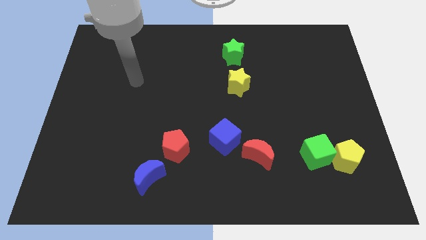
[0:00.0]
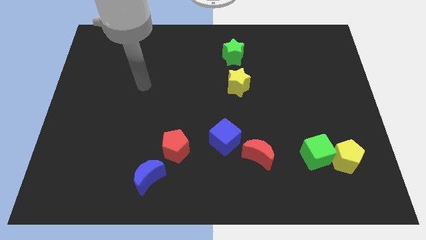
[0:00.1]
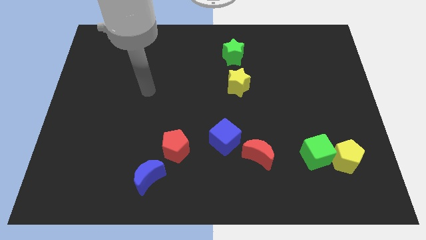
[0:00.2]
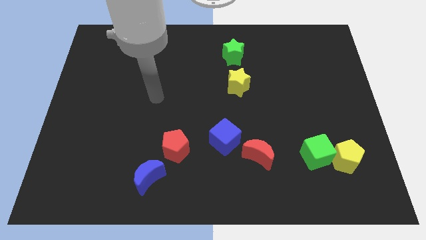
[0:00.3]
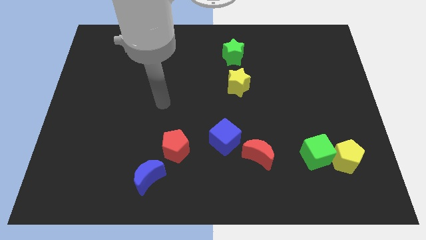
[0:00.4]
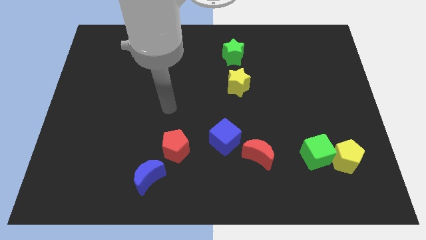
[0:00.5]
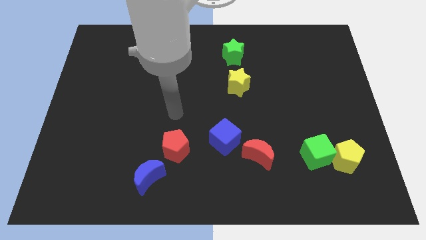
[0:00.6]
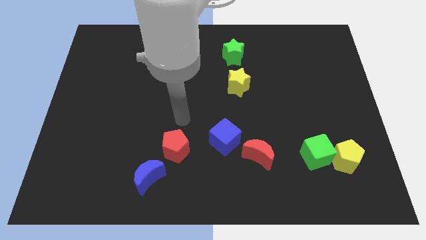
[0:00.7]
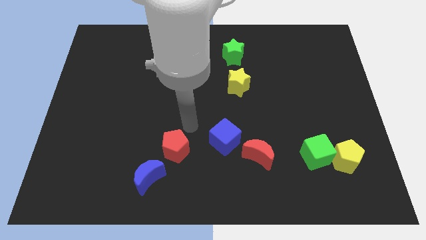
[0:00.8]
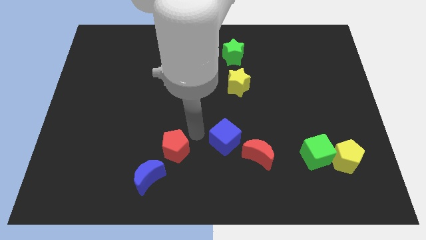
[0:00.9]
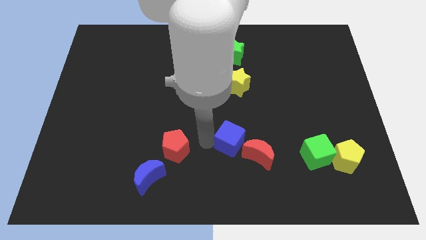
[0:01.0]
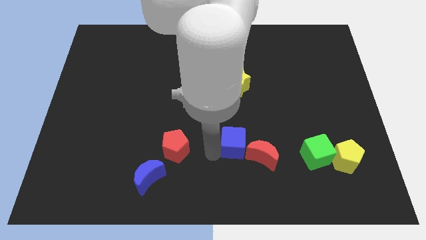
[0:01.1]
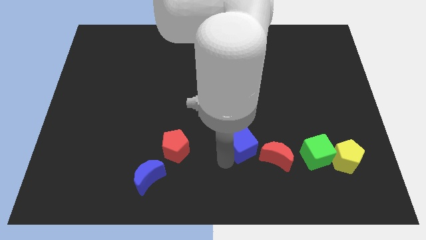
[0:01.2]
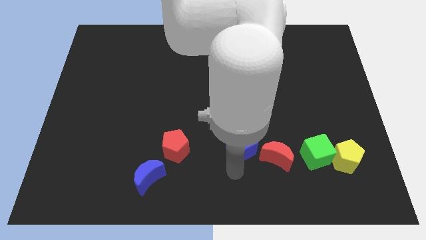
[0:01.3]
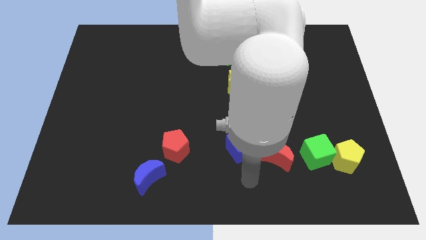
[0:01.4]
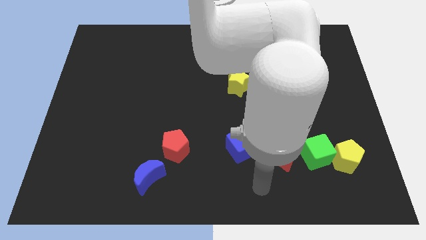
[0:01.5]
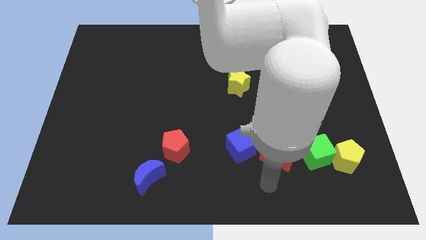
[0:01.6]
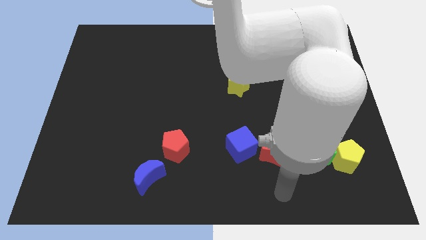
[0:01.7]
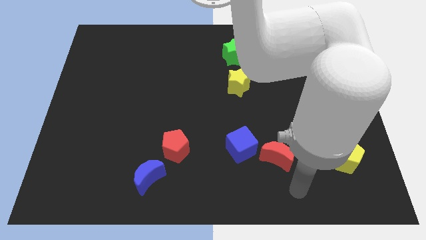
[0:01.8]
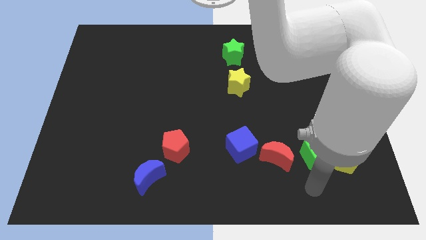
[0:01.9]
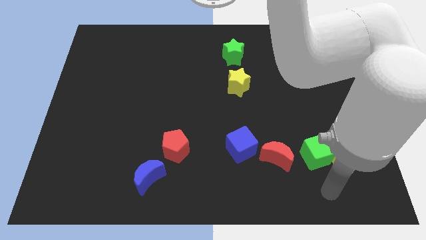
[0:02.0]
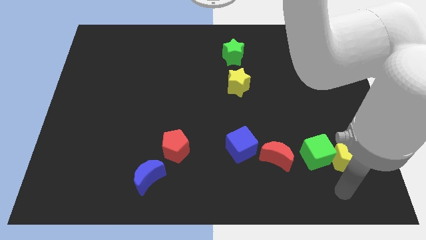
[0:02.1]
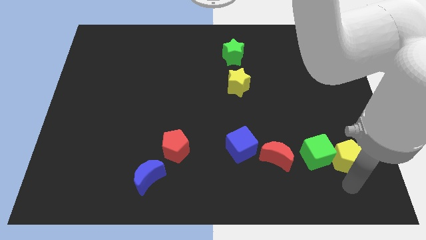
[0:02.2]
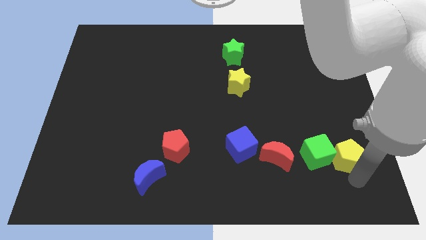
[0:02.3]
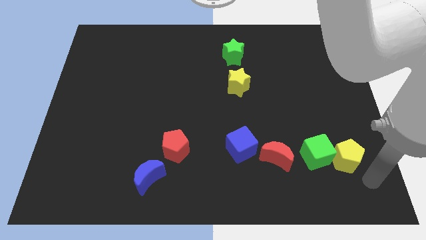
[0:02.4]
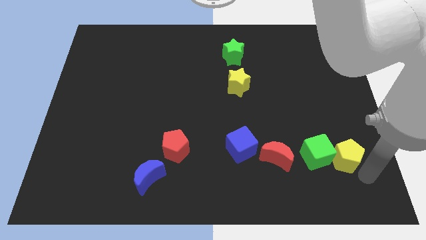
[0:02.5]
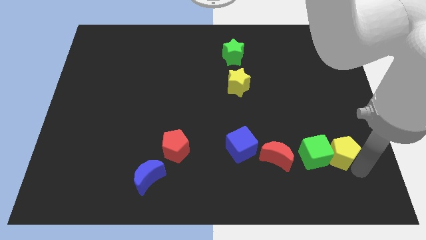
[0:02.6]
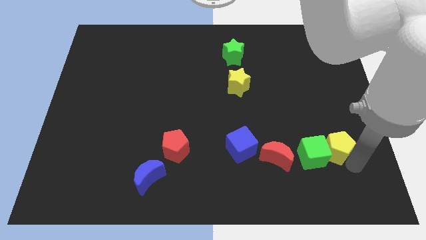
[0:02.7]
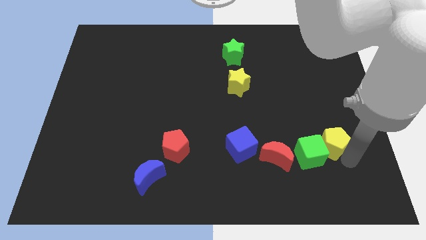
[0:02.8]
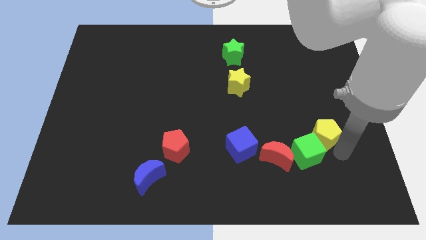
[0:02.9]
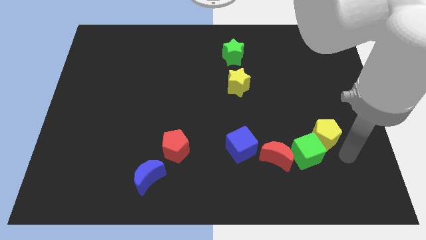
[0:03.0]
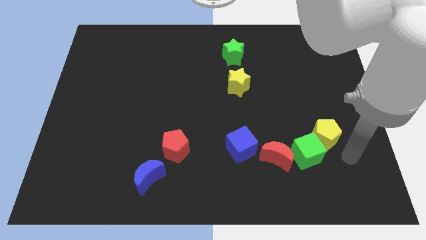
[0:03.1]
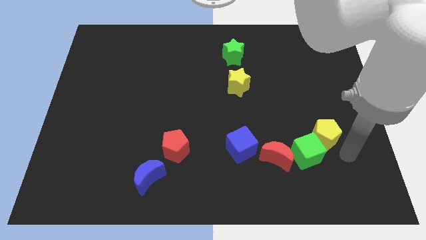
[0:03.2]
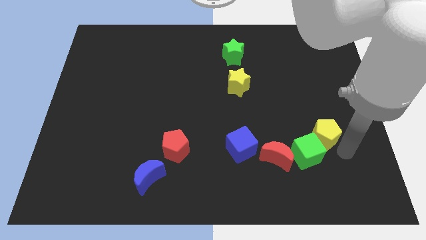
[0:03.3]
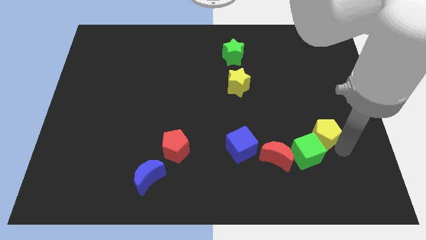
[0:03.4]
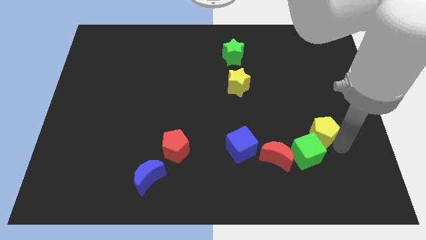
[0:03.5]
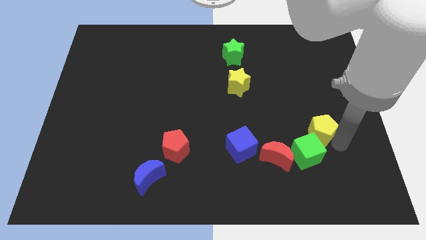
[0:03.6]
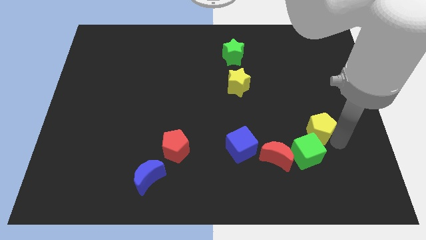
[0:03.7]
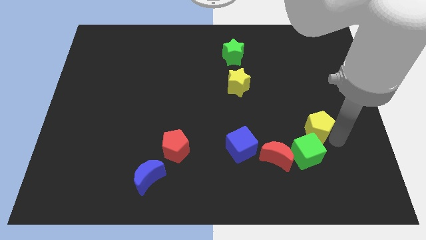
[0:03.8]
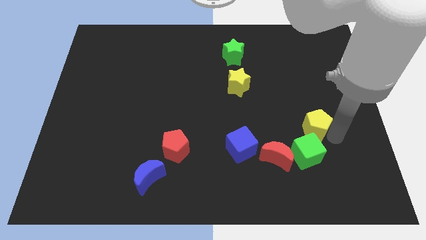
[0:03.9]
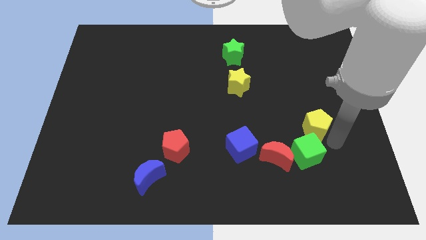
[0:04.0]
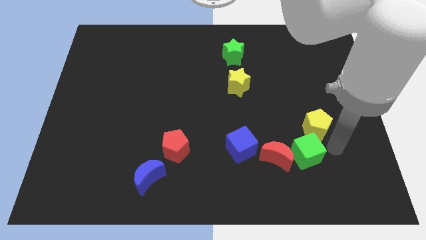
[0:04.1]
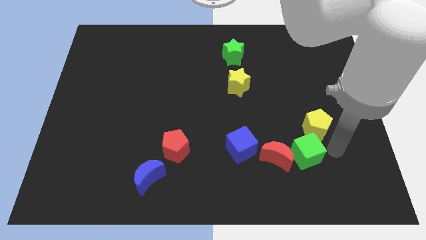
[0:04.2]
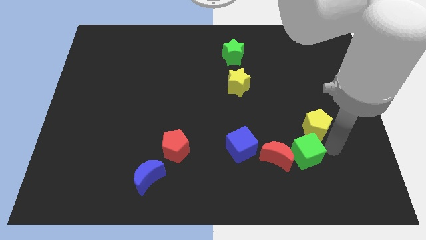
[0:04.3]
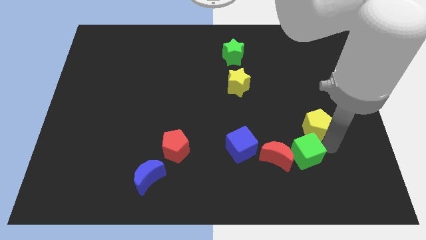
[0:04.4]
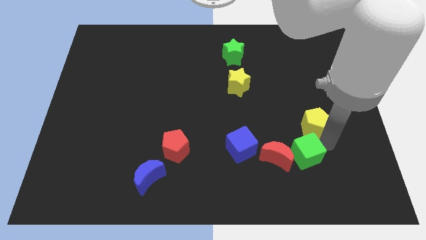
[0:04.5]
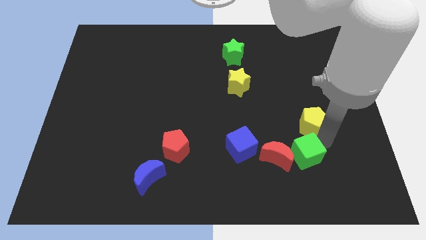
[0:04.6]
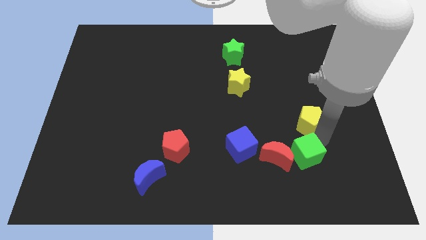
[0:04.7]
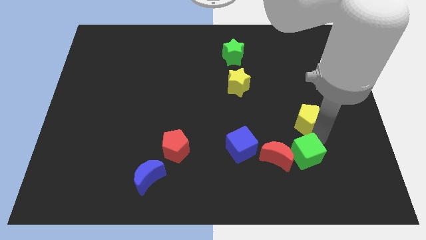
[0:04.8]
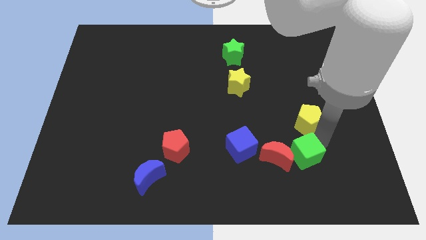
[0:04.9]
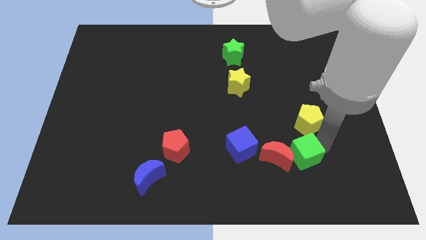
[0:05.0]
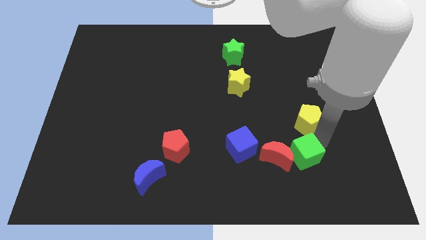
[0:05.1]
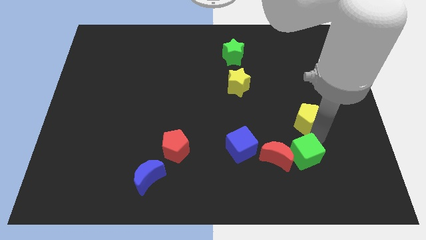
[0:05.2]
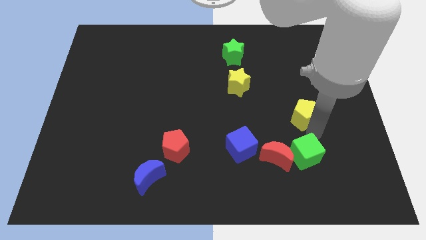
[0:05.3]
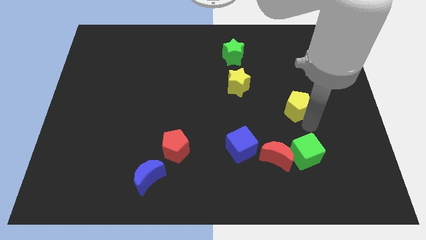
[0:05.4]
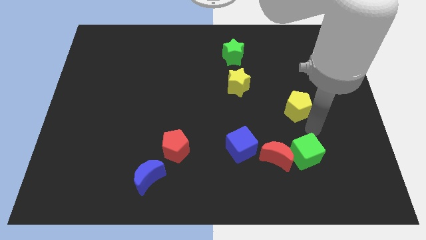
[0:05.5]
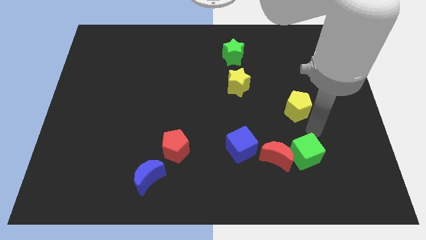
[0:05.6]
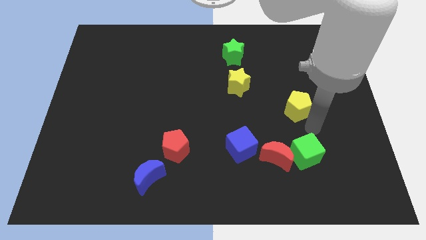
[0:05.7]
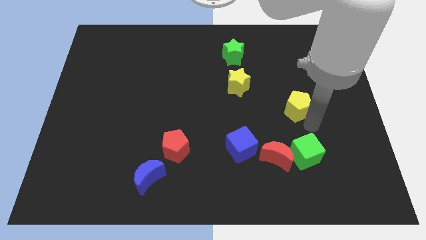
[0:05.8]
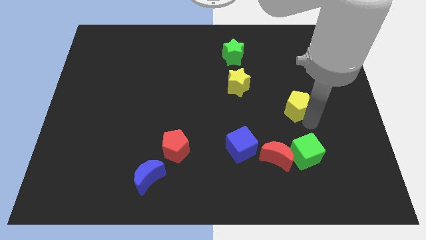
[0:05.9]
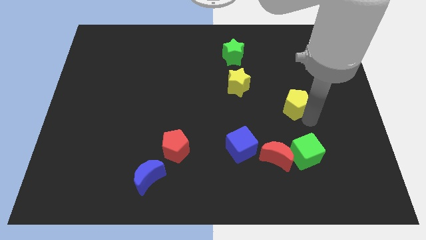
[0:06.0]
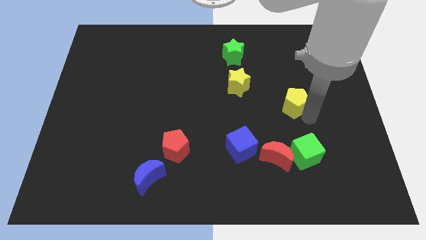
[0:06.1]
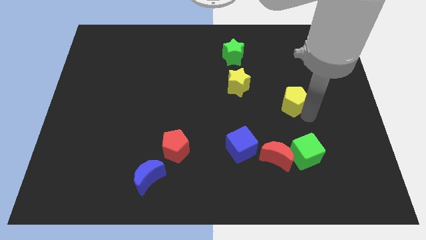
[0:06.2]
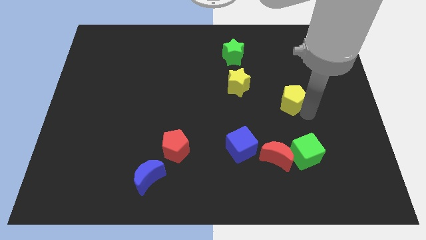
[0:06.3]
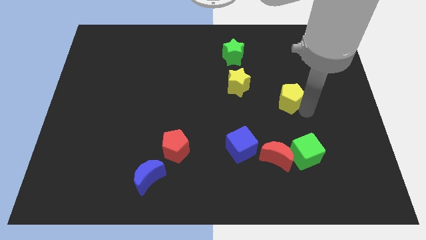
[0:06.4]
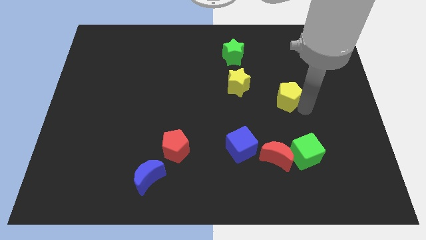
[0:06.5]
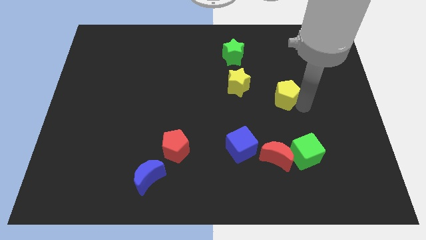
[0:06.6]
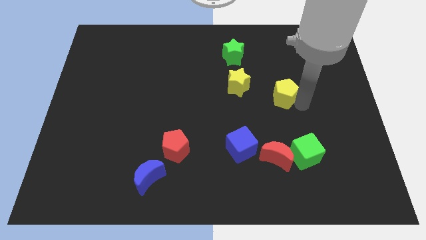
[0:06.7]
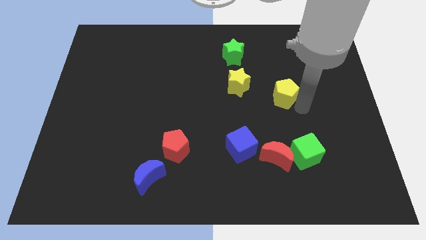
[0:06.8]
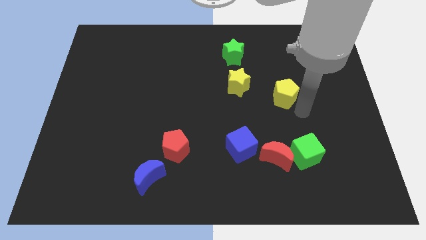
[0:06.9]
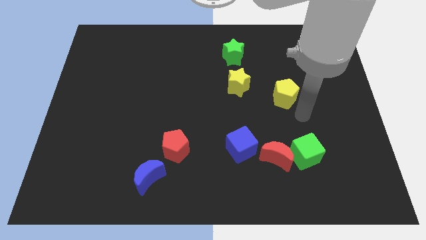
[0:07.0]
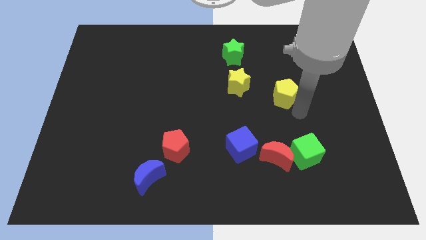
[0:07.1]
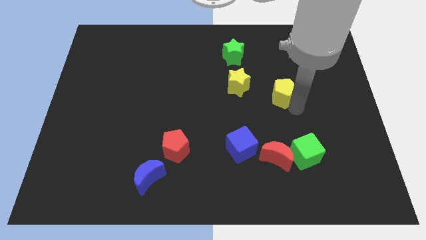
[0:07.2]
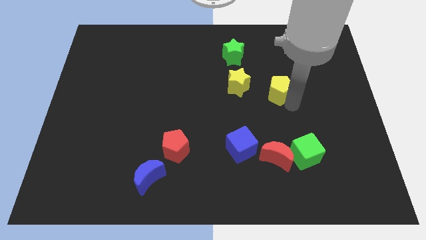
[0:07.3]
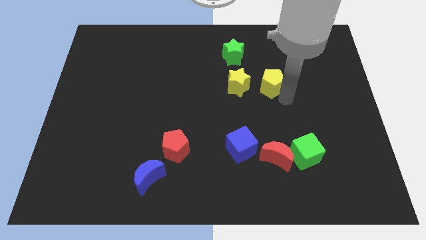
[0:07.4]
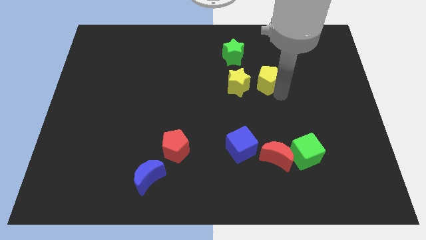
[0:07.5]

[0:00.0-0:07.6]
push the yellow pentagon to the top right of the yellow star

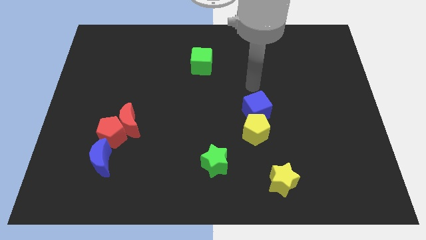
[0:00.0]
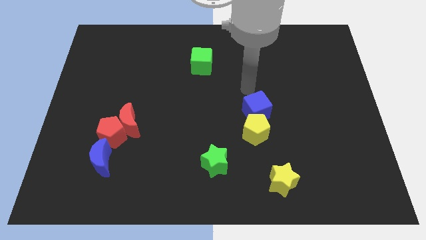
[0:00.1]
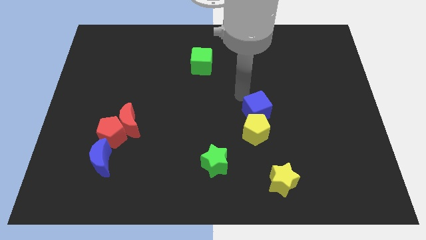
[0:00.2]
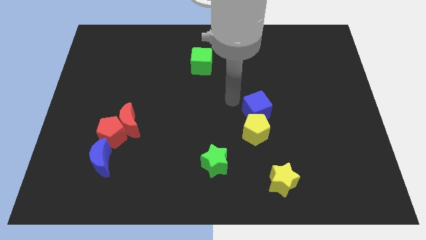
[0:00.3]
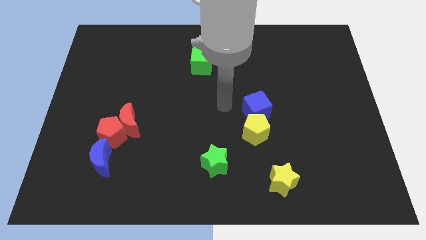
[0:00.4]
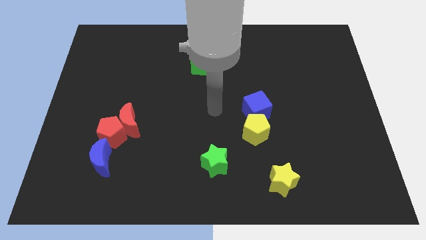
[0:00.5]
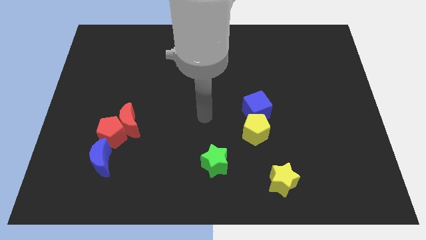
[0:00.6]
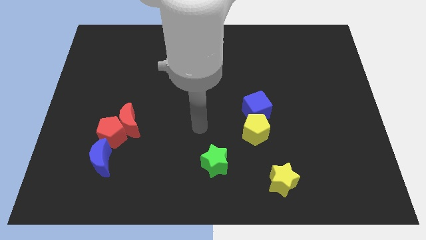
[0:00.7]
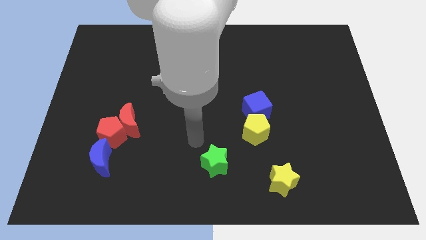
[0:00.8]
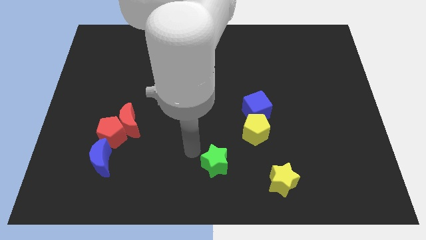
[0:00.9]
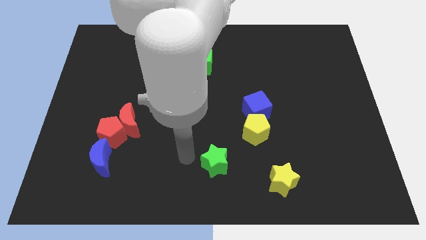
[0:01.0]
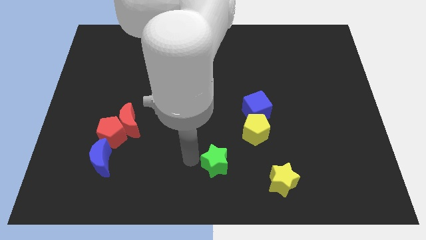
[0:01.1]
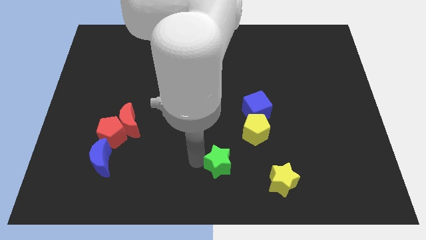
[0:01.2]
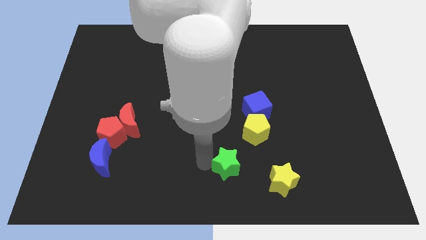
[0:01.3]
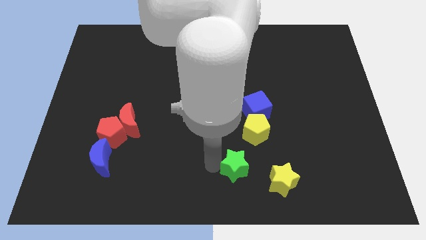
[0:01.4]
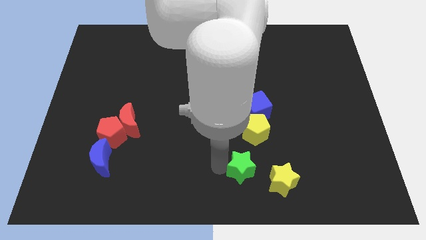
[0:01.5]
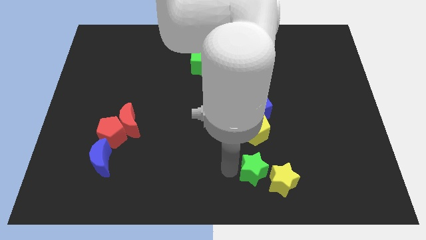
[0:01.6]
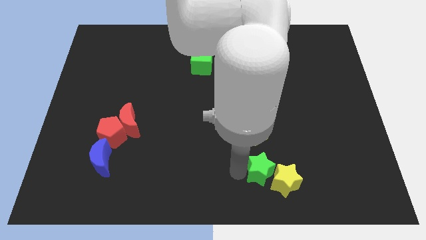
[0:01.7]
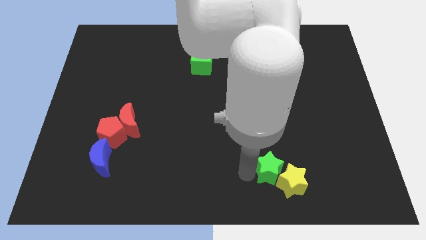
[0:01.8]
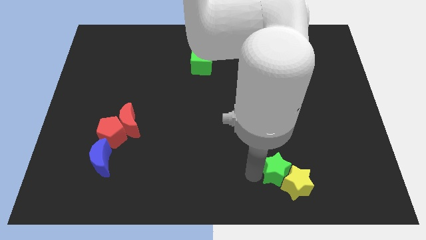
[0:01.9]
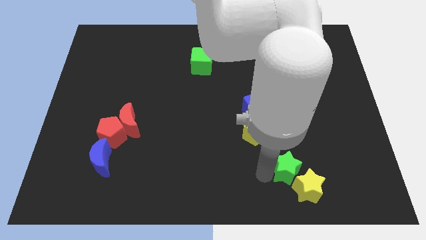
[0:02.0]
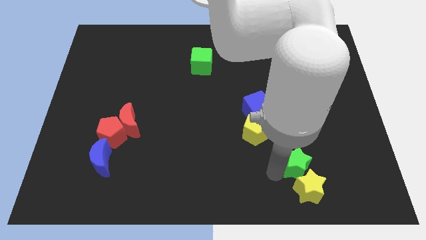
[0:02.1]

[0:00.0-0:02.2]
slide the green star to the top right side of the yellow star
